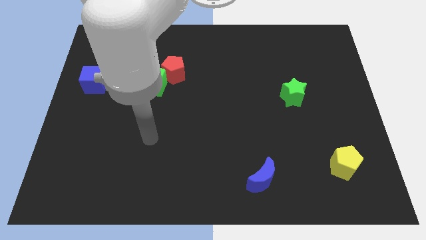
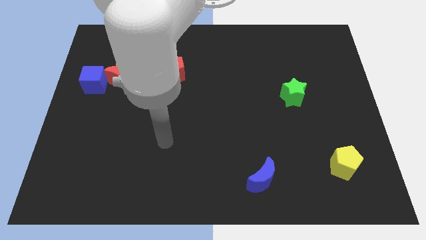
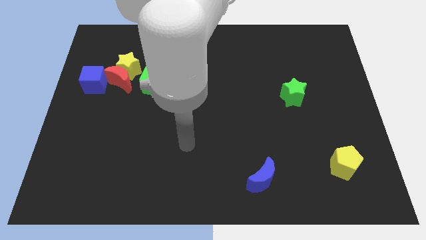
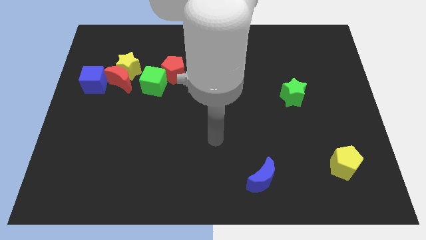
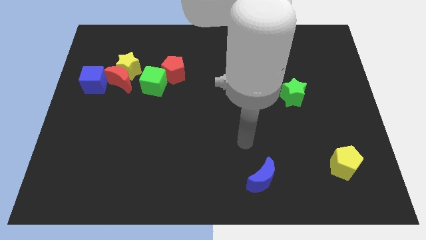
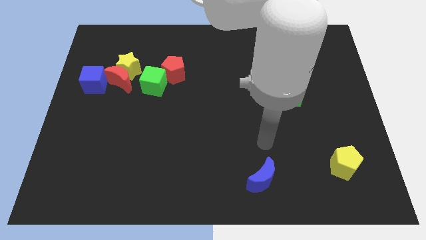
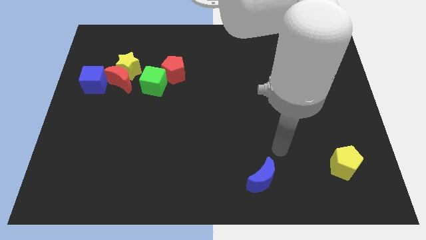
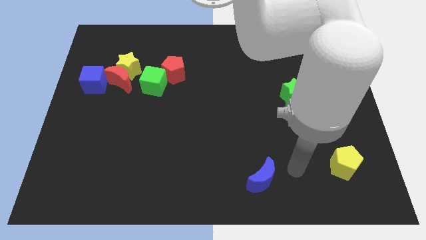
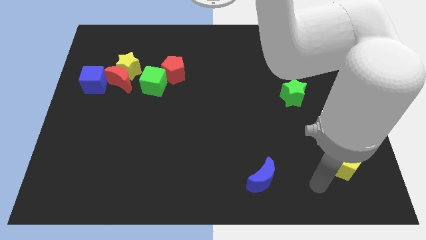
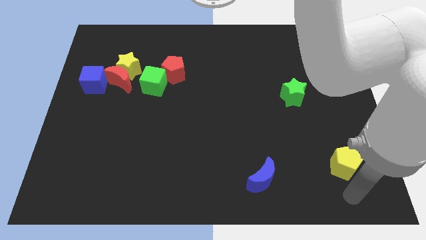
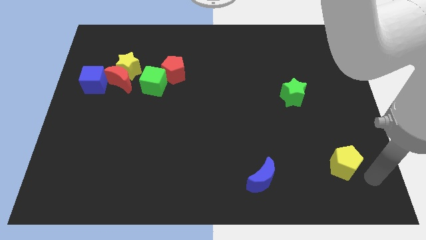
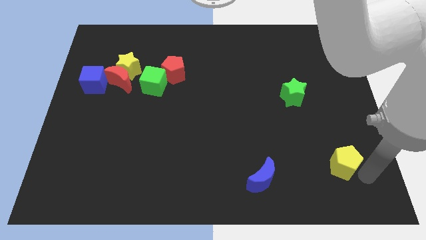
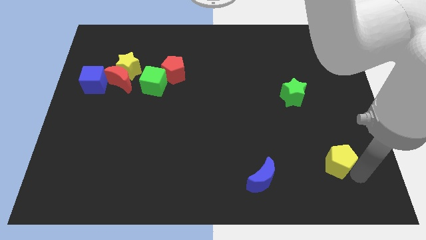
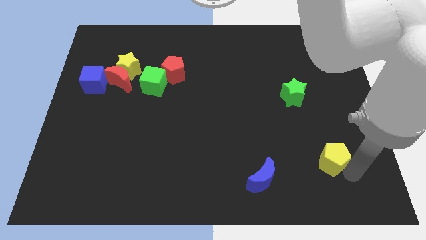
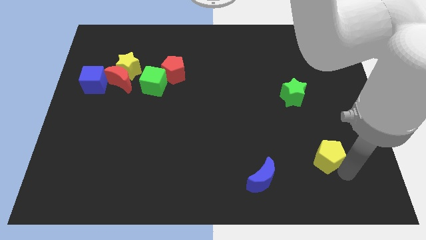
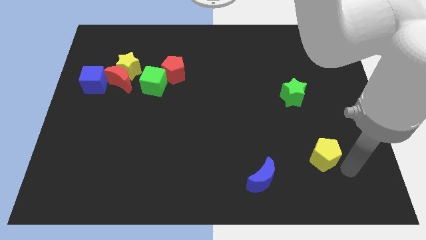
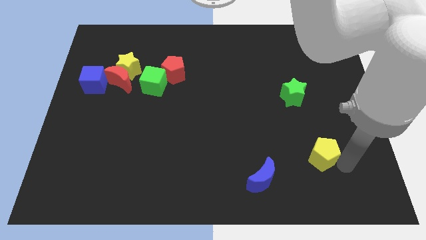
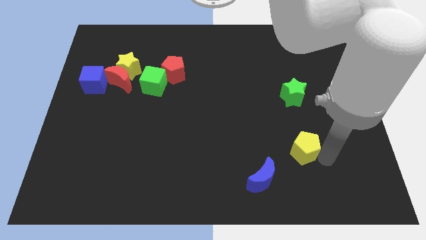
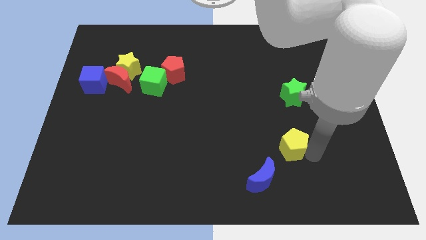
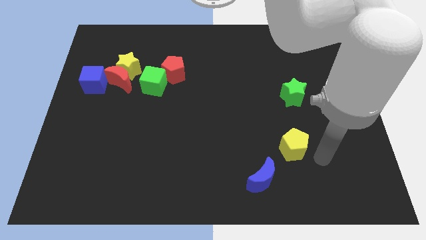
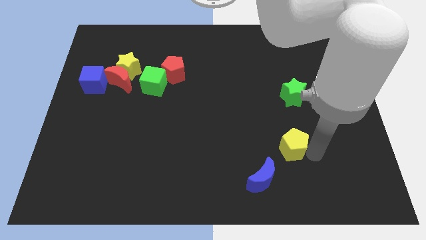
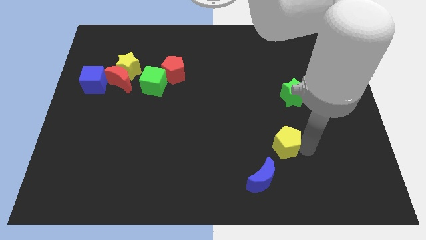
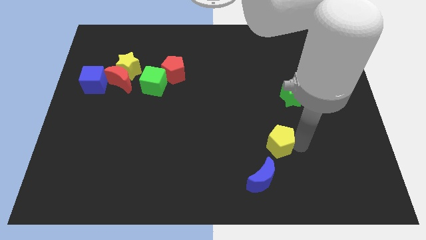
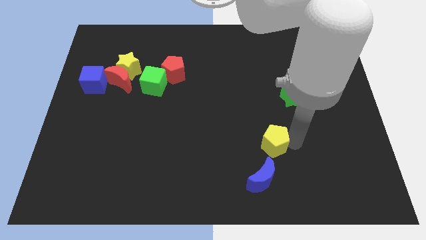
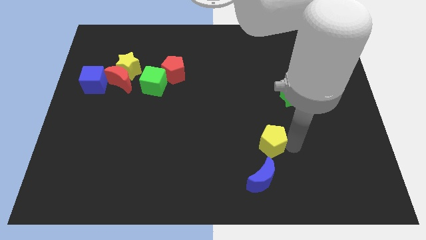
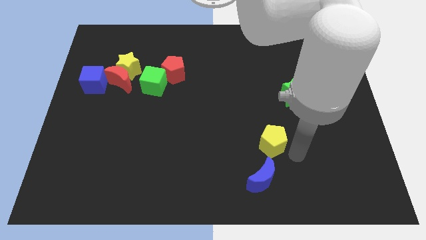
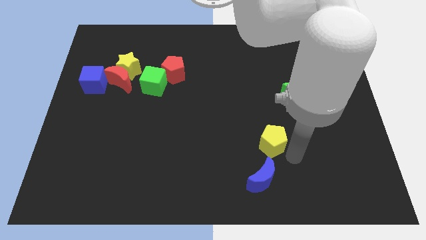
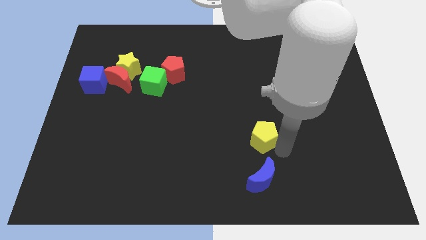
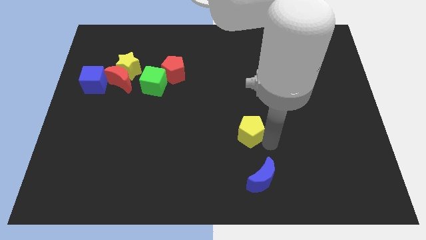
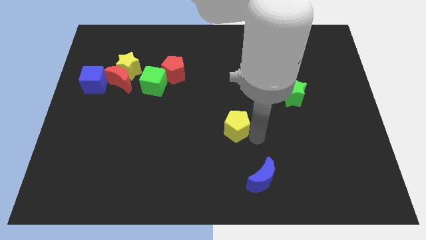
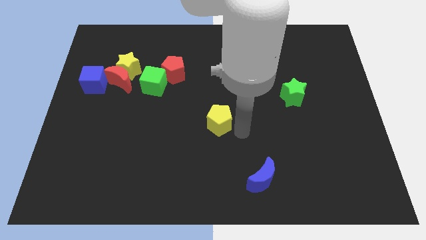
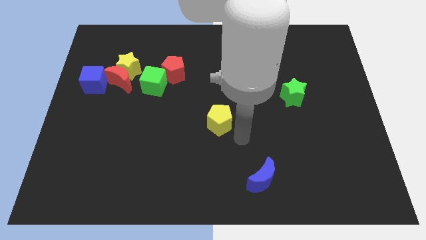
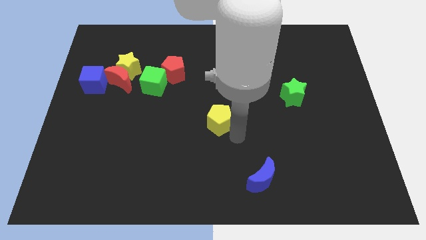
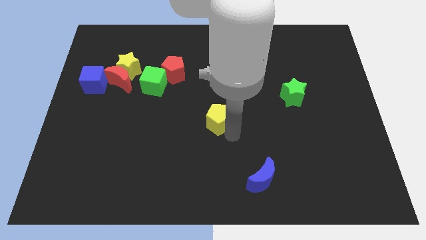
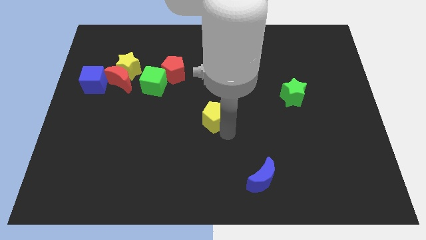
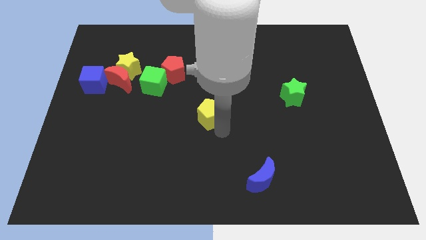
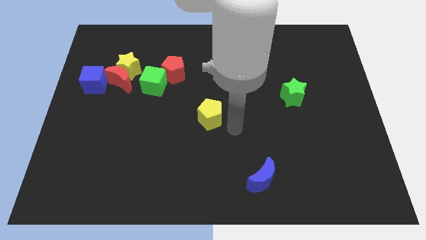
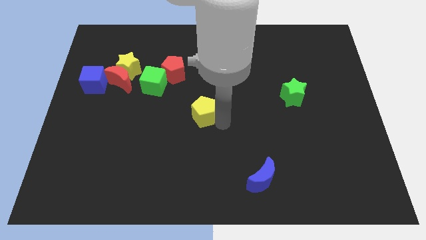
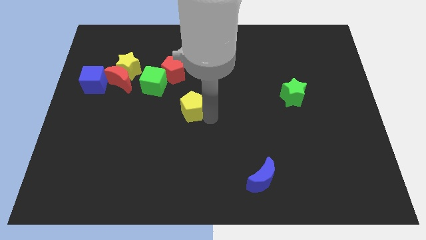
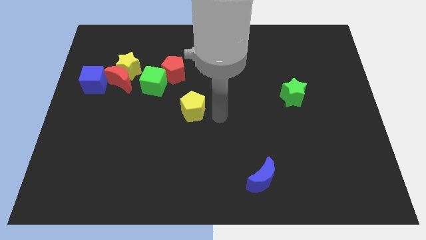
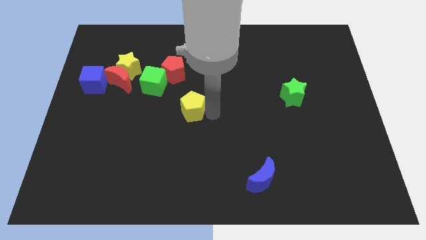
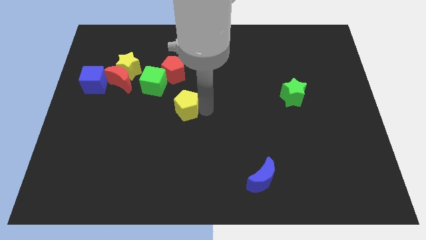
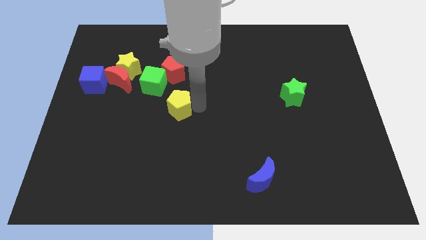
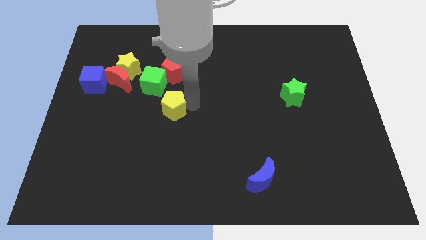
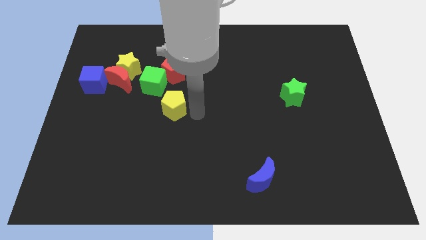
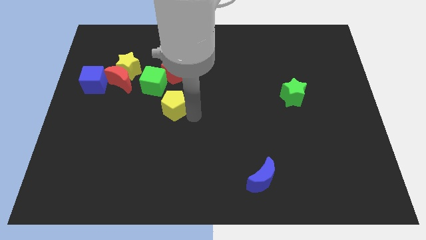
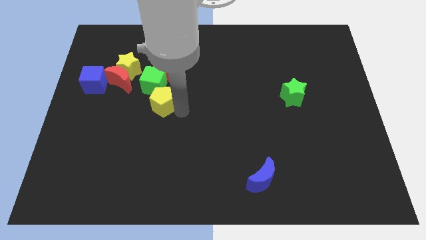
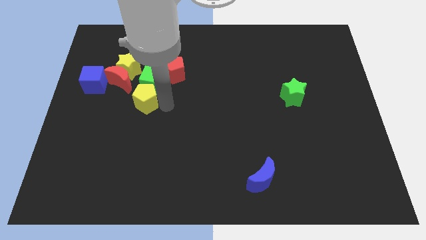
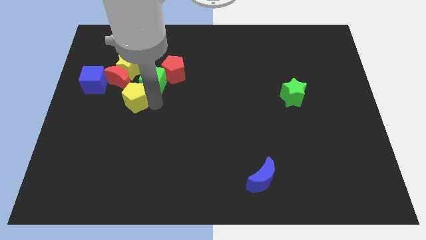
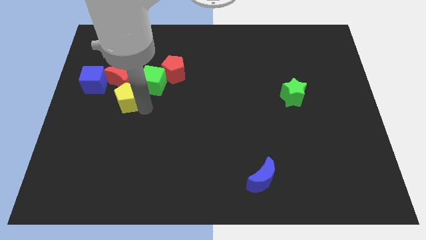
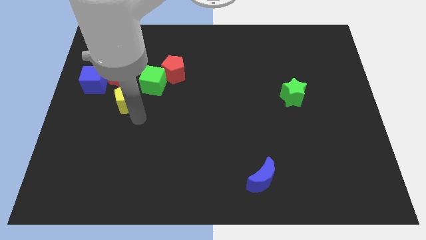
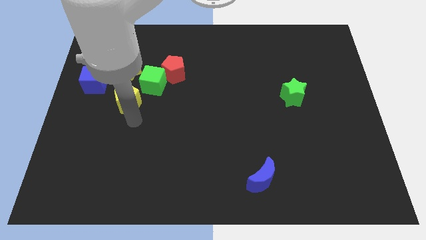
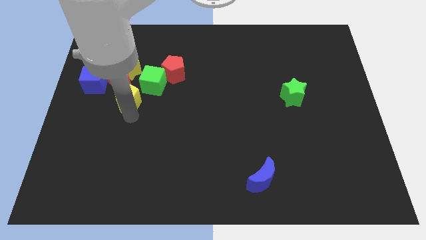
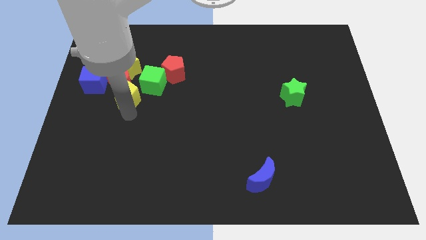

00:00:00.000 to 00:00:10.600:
slide the yellow pentagon to the red moon

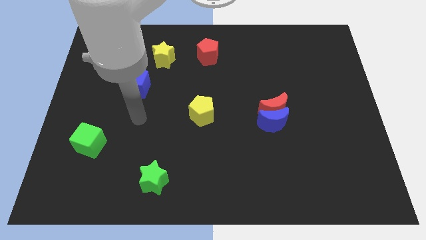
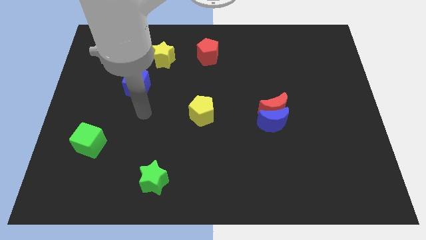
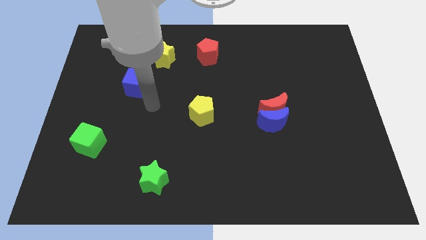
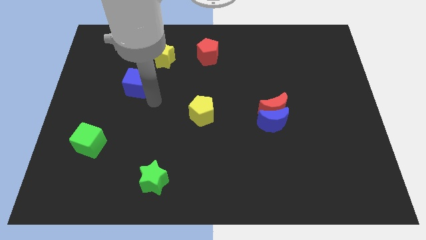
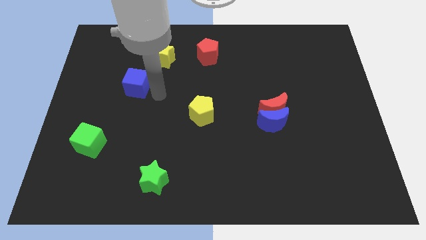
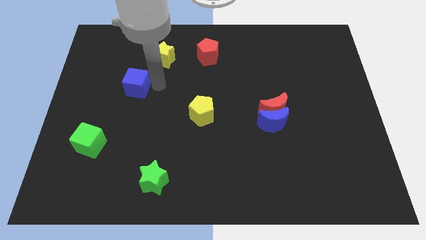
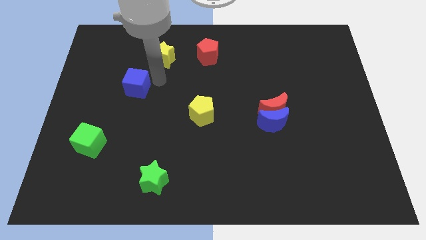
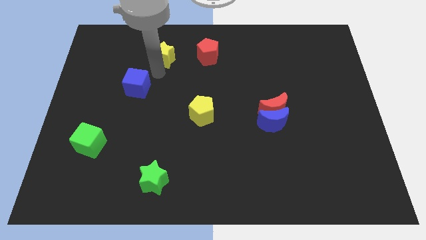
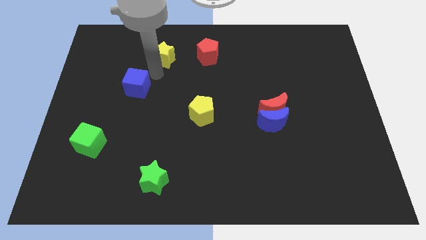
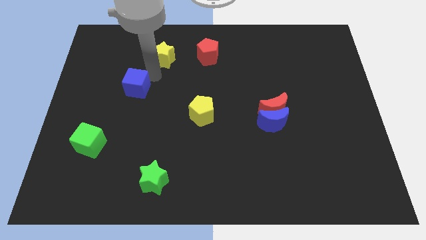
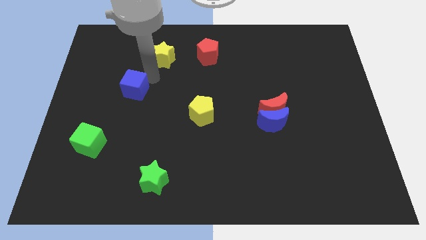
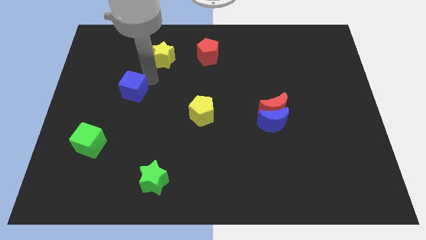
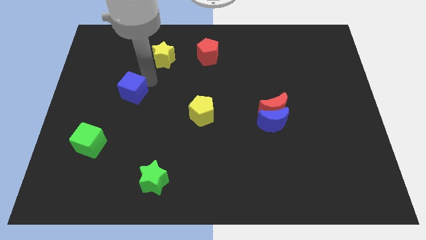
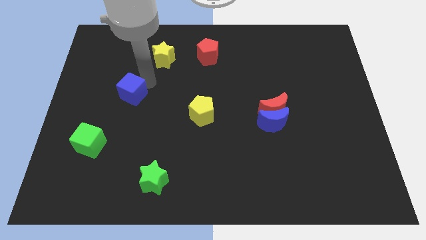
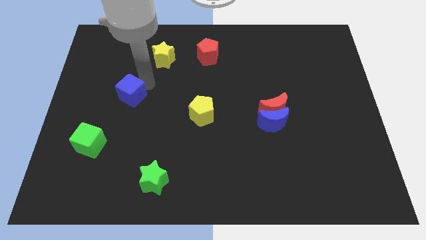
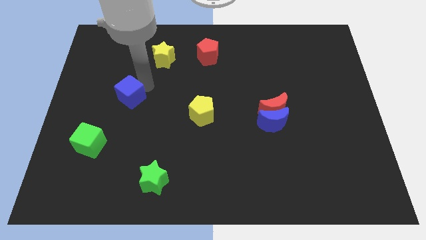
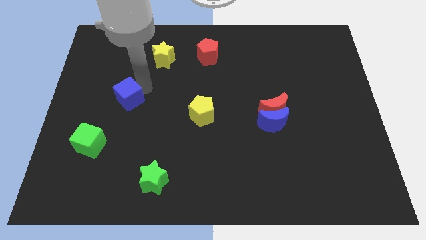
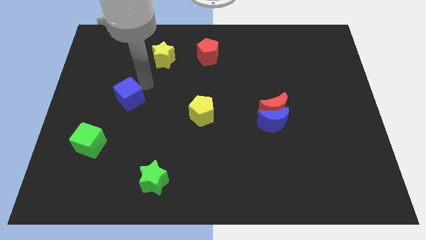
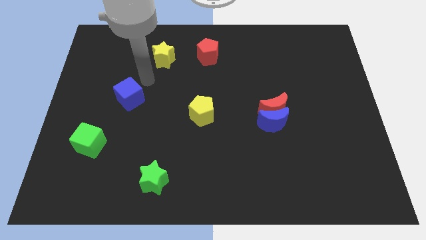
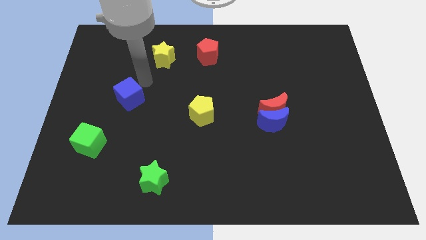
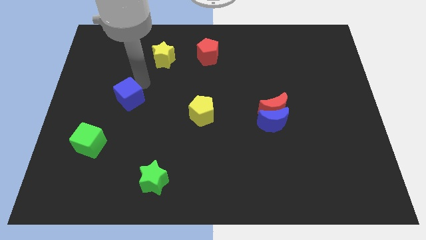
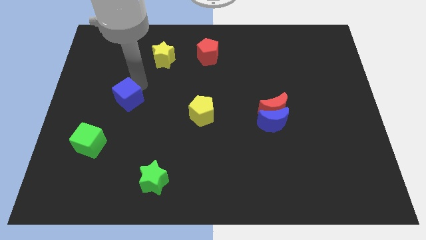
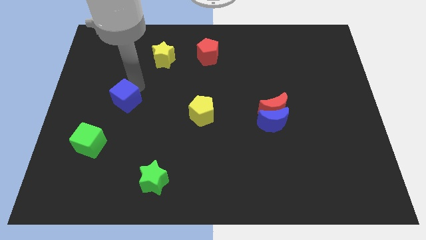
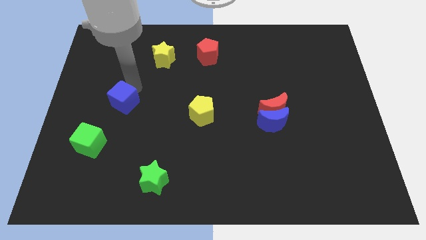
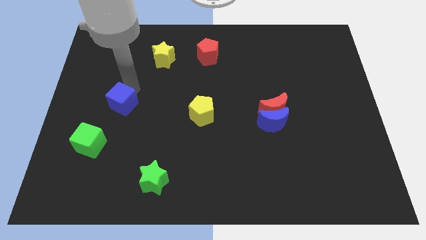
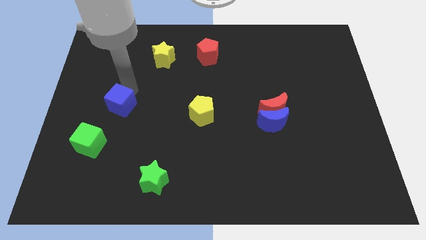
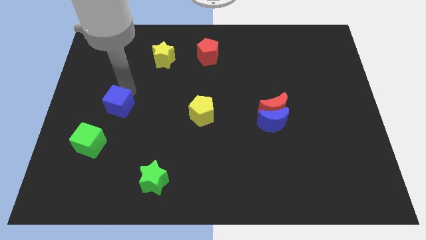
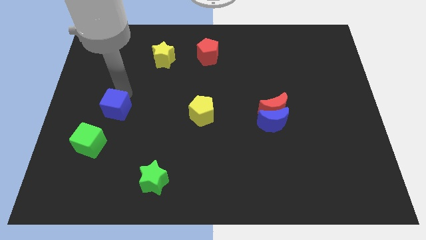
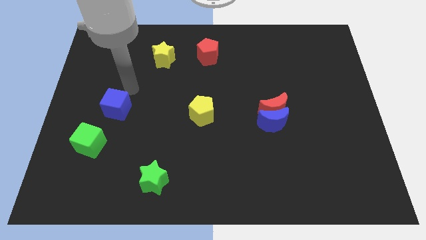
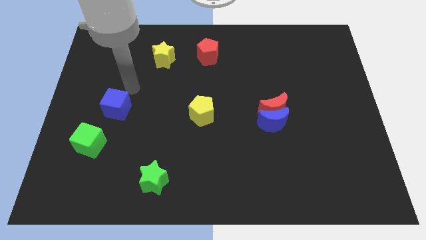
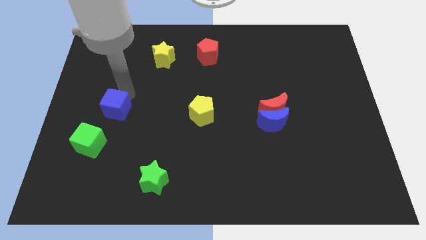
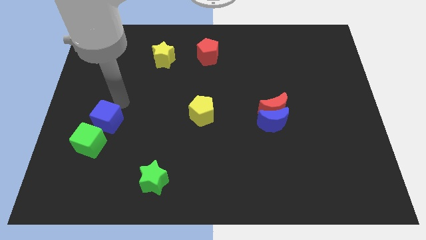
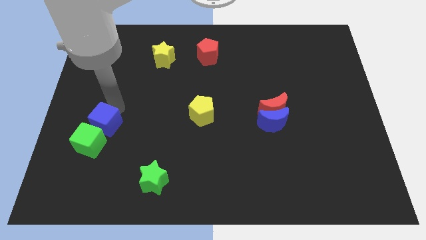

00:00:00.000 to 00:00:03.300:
slide the blue cube next to the green cube
